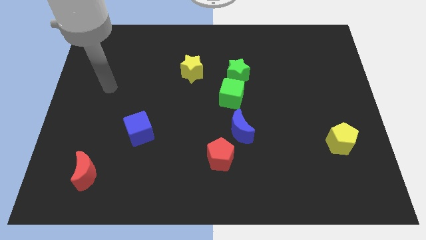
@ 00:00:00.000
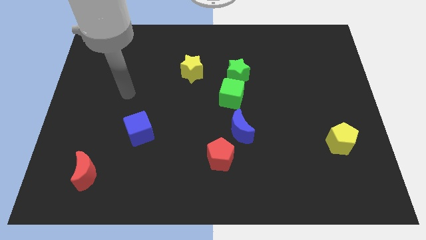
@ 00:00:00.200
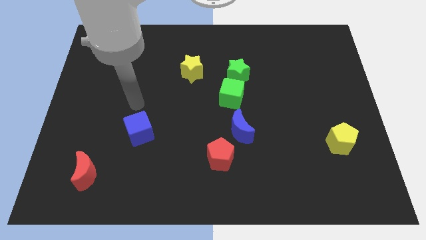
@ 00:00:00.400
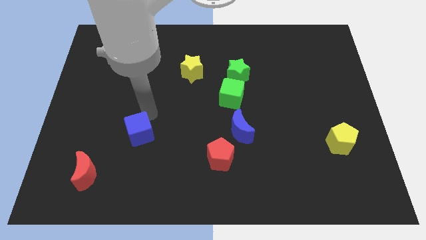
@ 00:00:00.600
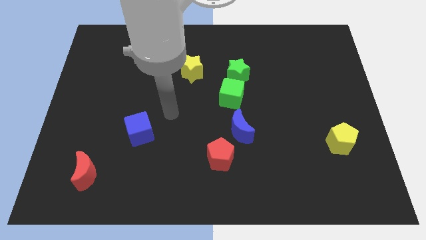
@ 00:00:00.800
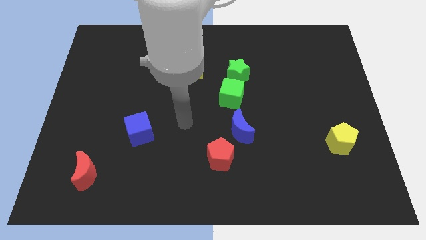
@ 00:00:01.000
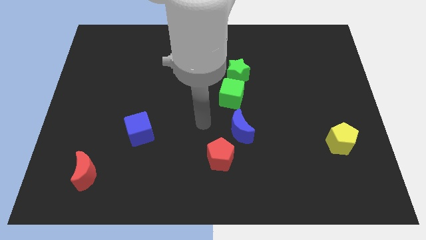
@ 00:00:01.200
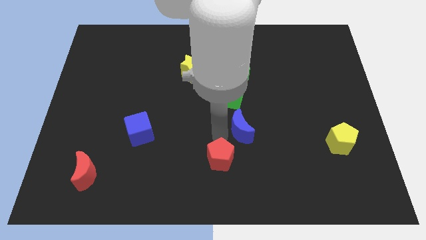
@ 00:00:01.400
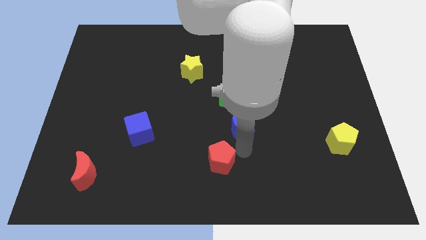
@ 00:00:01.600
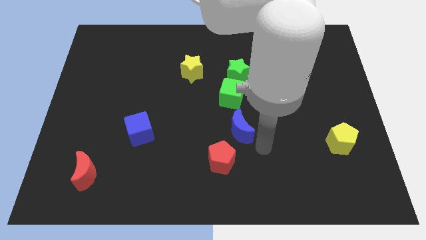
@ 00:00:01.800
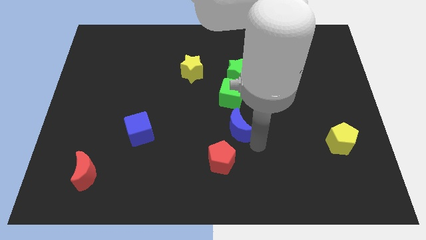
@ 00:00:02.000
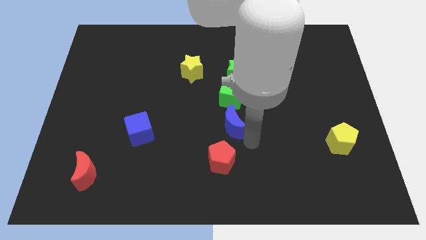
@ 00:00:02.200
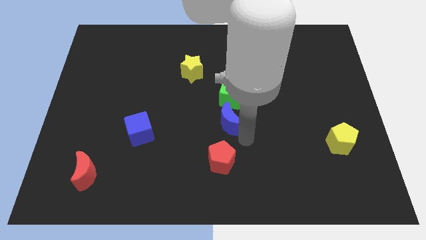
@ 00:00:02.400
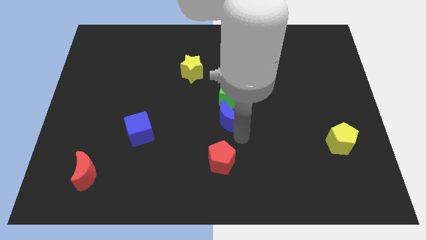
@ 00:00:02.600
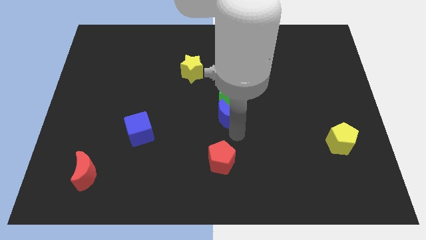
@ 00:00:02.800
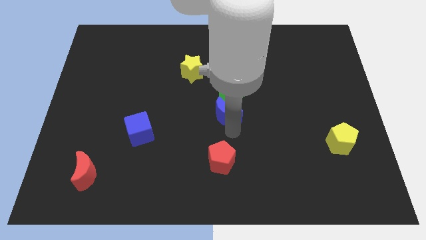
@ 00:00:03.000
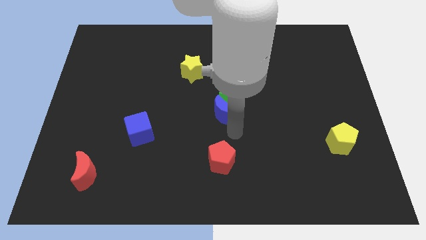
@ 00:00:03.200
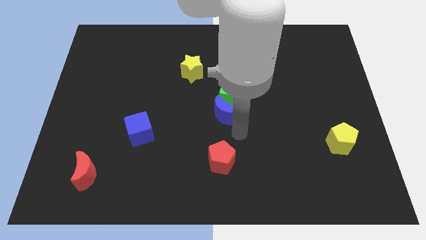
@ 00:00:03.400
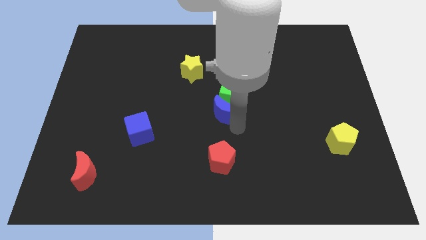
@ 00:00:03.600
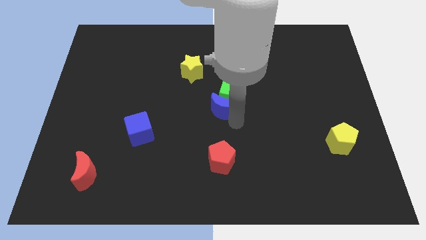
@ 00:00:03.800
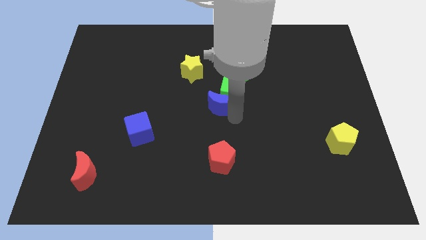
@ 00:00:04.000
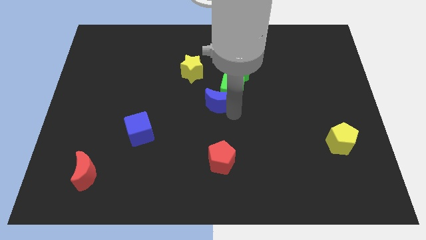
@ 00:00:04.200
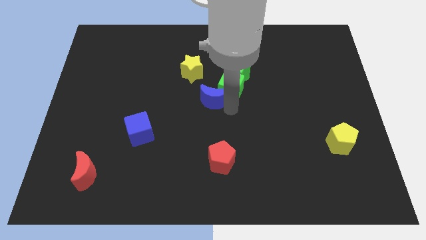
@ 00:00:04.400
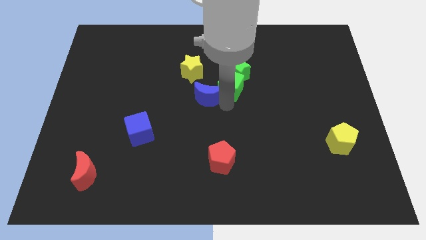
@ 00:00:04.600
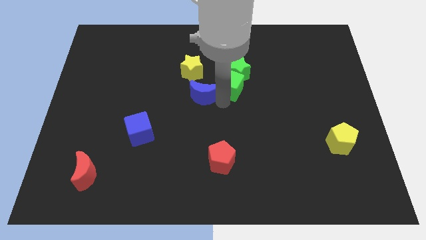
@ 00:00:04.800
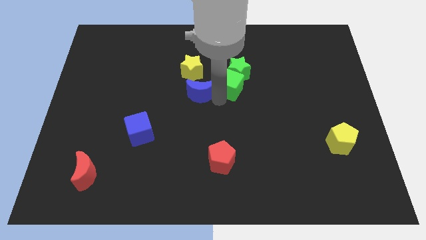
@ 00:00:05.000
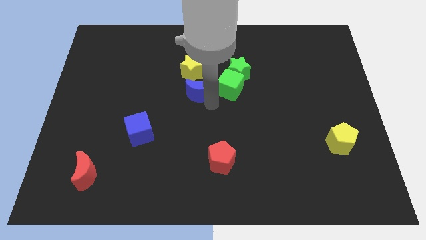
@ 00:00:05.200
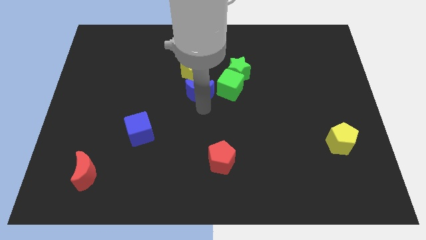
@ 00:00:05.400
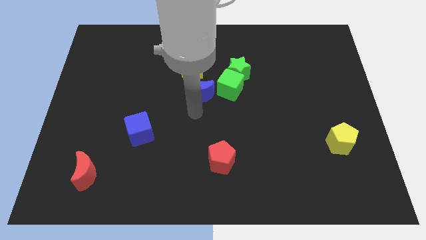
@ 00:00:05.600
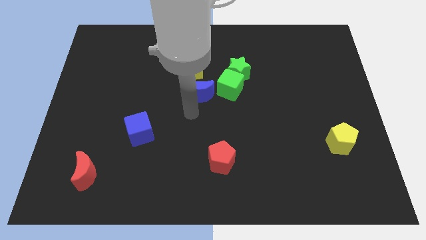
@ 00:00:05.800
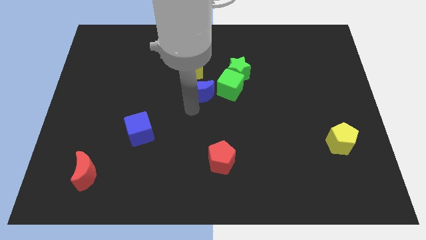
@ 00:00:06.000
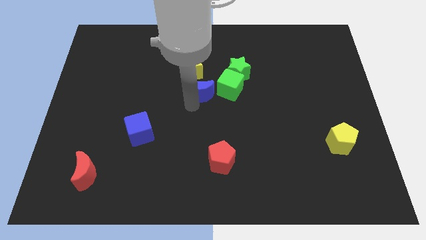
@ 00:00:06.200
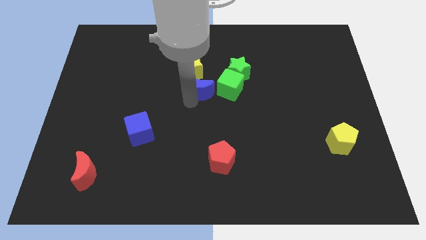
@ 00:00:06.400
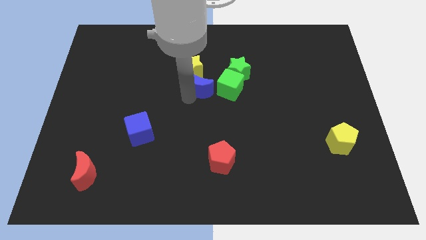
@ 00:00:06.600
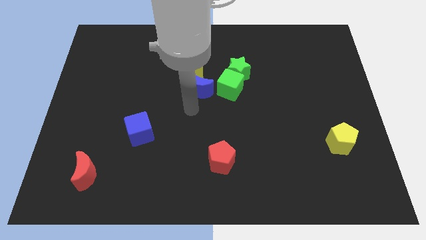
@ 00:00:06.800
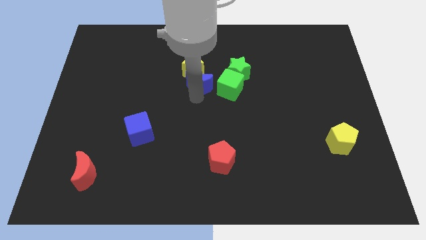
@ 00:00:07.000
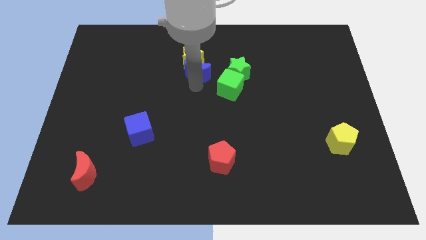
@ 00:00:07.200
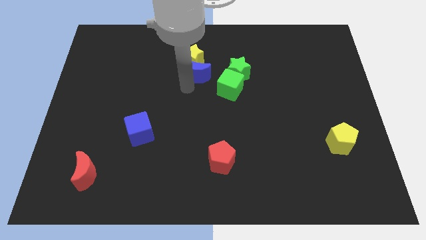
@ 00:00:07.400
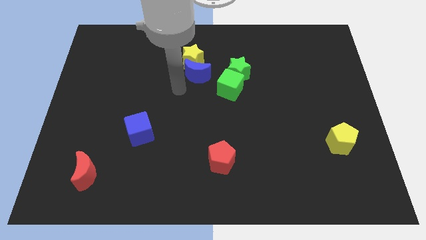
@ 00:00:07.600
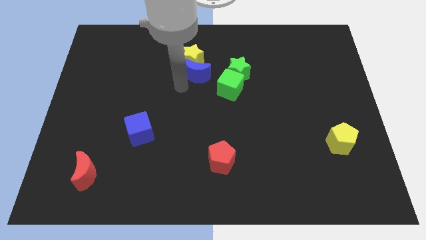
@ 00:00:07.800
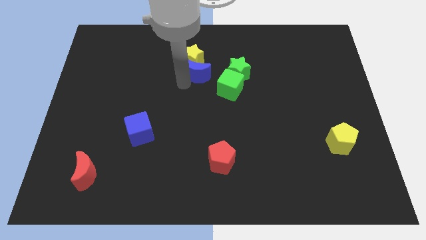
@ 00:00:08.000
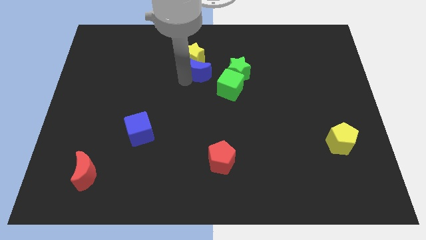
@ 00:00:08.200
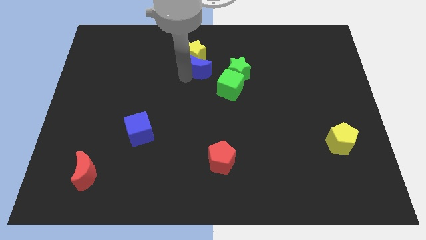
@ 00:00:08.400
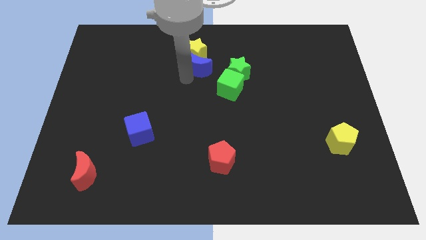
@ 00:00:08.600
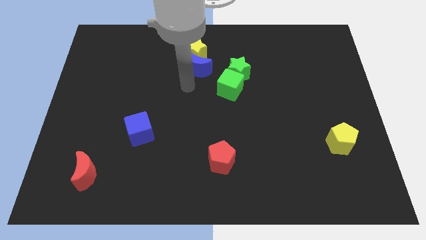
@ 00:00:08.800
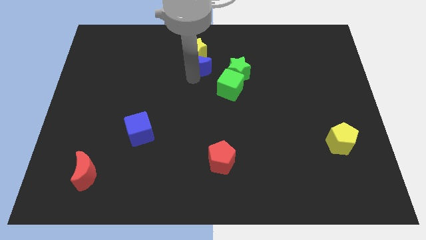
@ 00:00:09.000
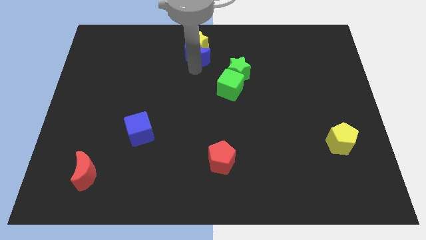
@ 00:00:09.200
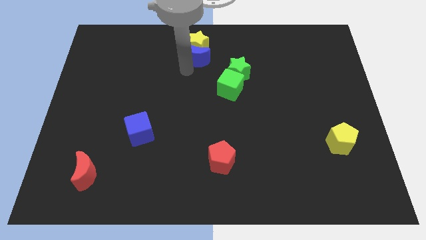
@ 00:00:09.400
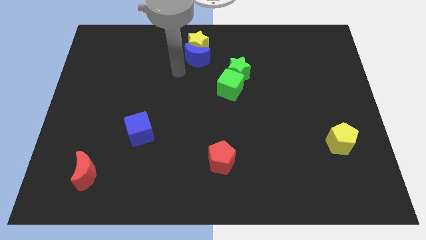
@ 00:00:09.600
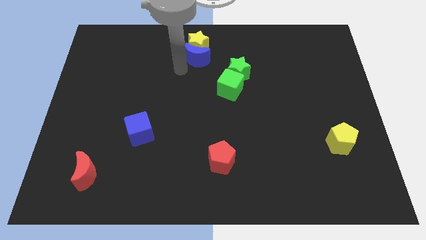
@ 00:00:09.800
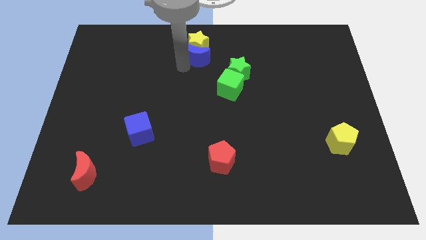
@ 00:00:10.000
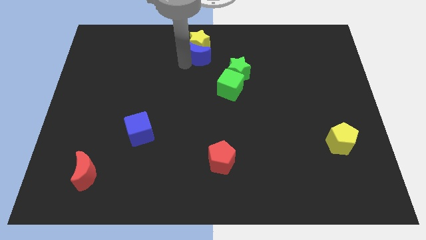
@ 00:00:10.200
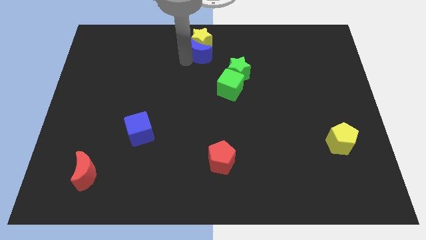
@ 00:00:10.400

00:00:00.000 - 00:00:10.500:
slide the blue moon to the top
